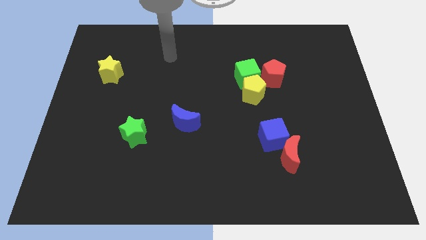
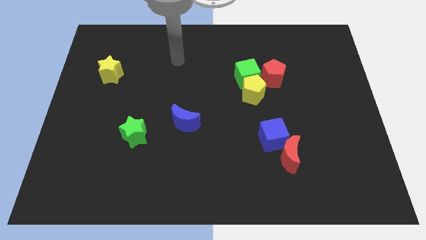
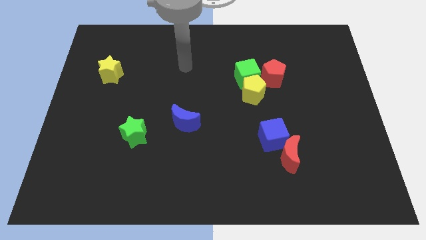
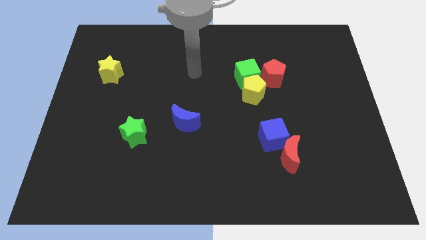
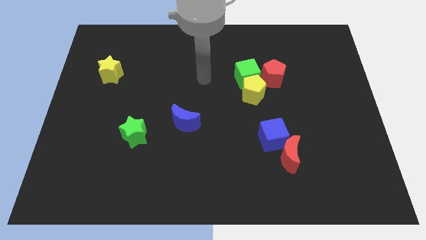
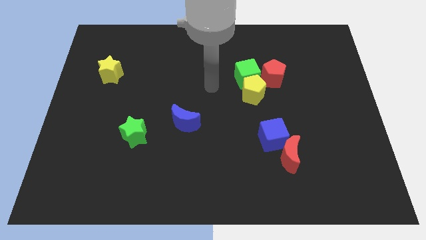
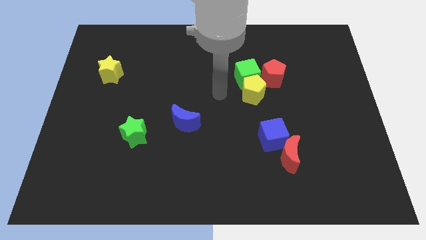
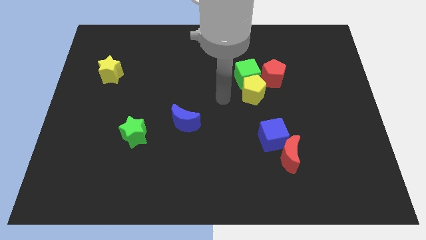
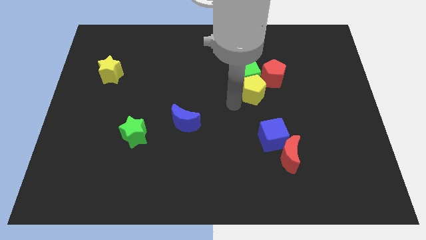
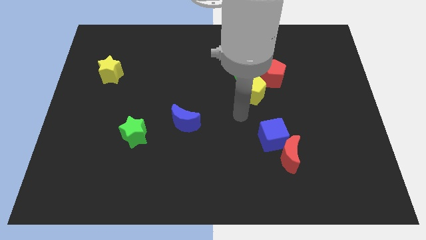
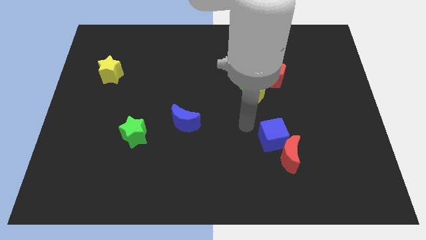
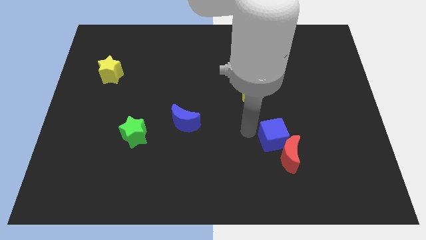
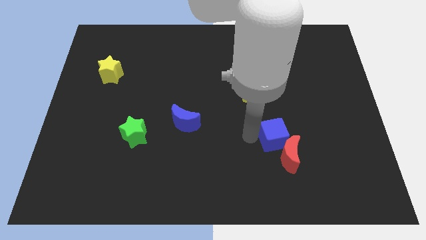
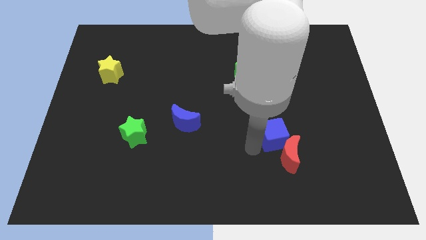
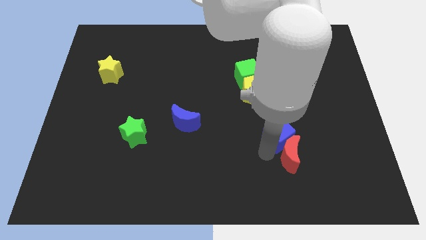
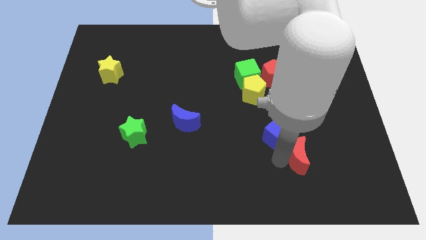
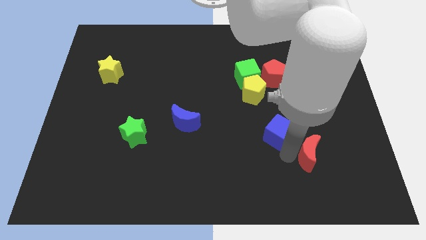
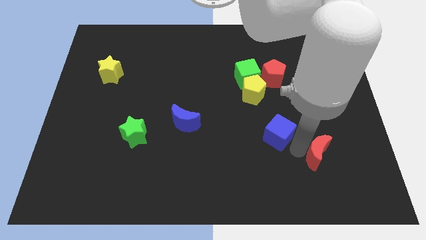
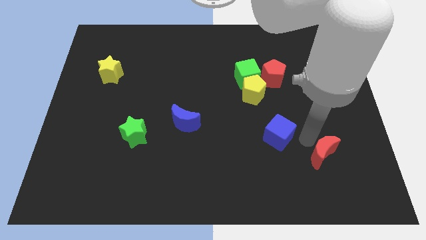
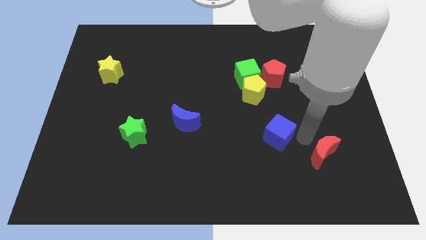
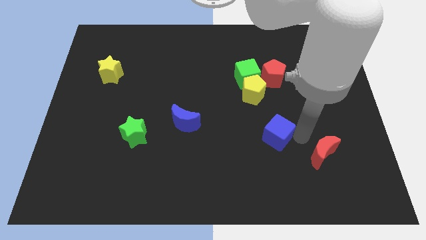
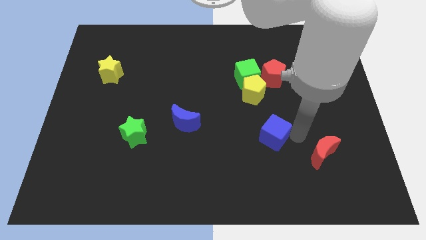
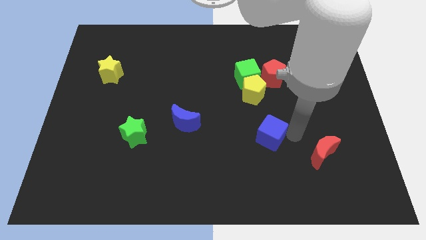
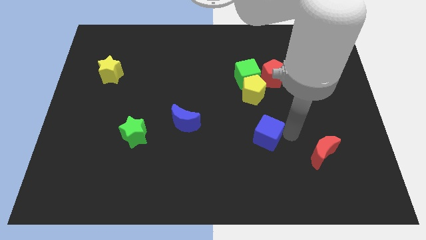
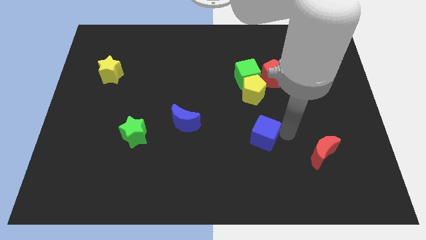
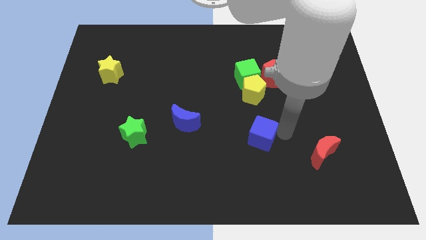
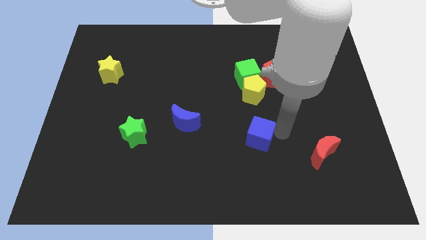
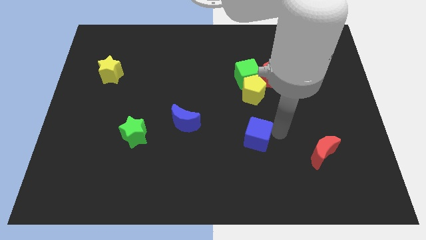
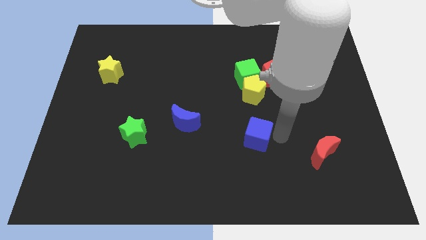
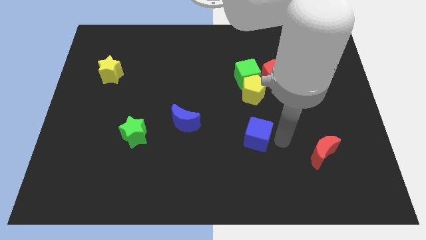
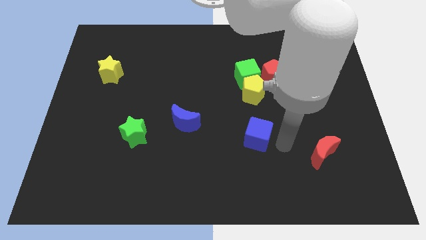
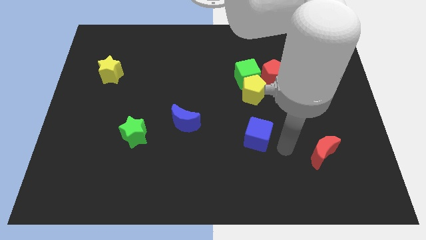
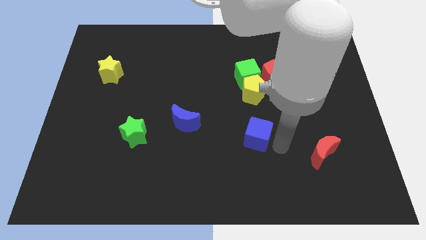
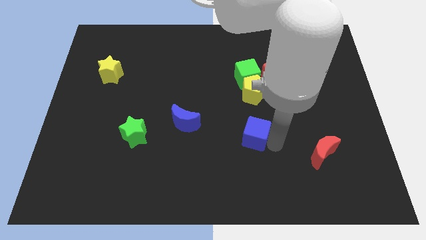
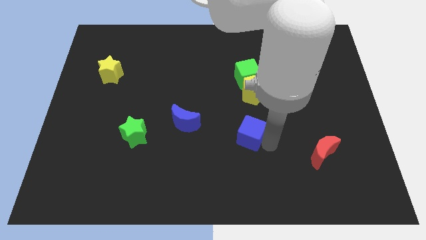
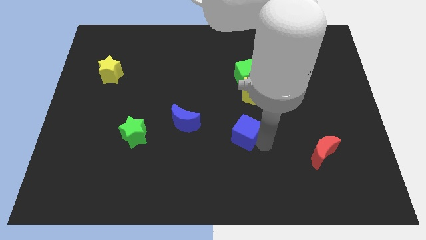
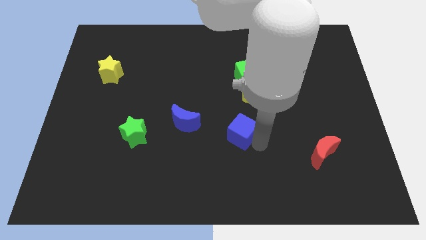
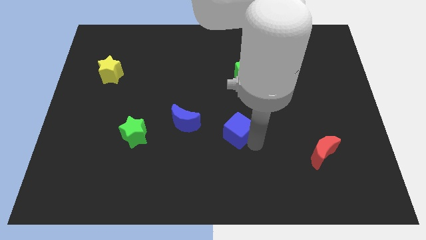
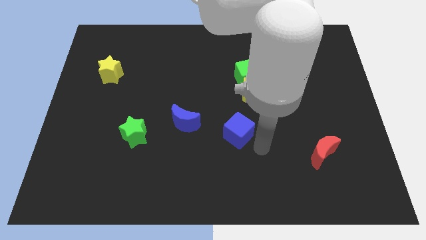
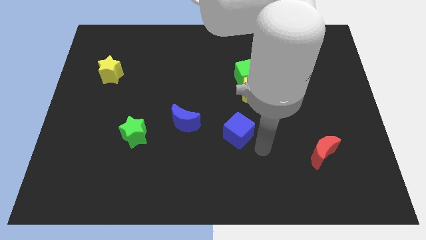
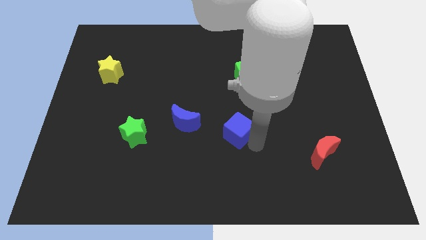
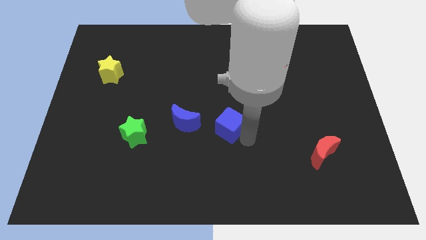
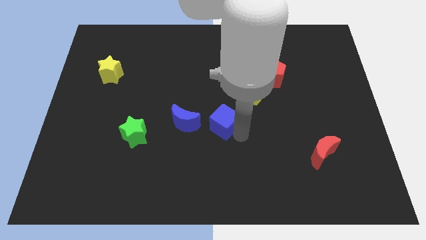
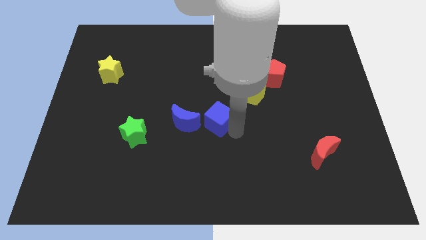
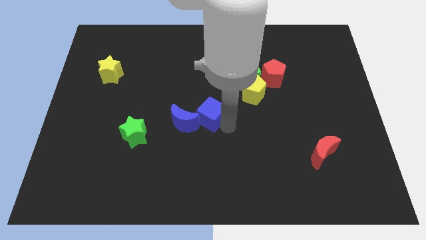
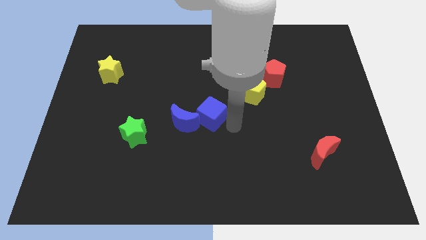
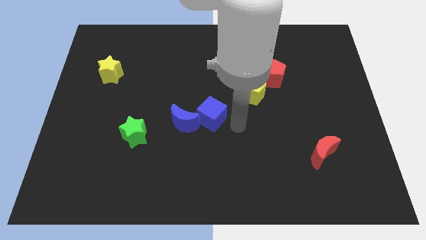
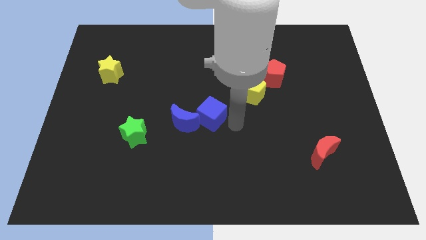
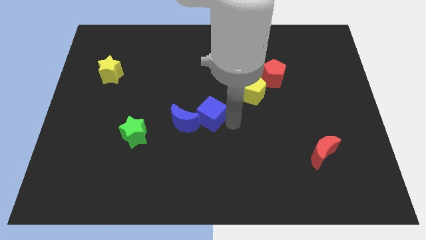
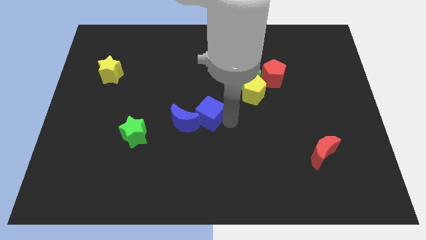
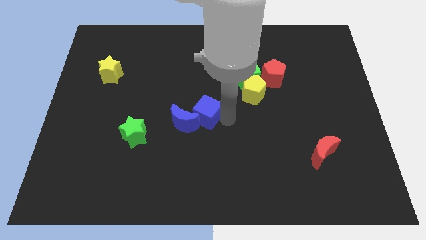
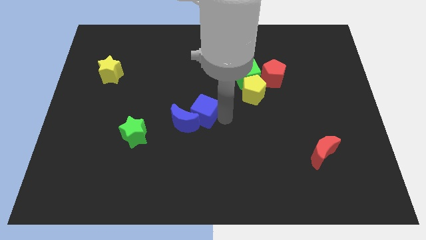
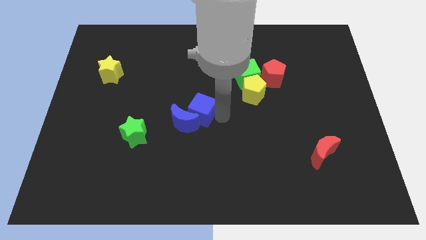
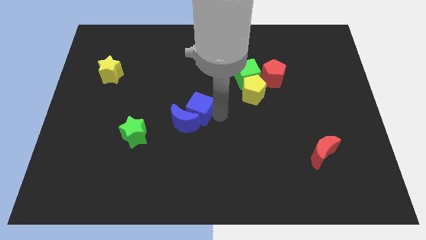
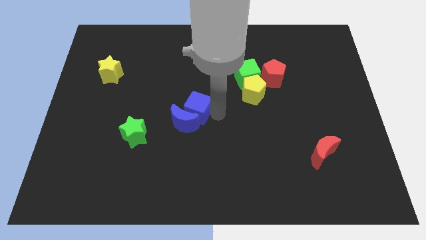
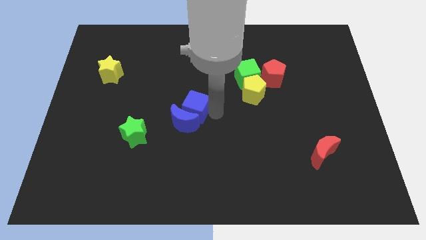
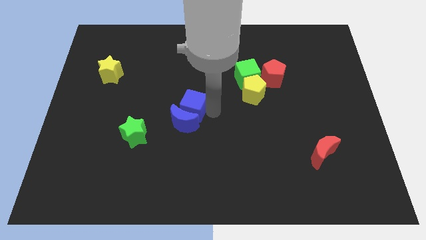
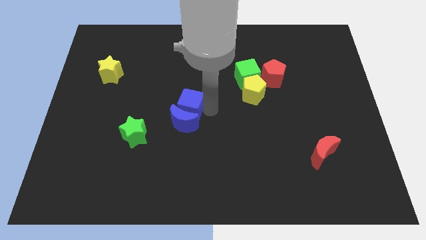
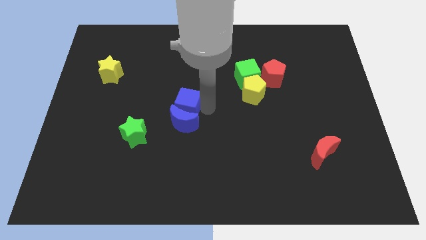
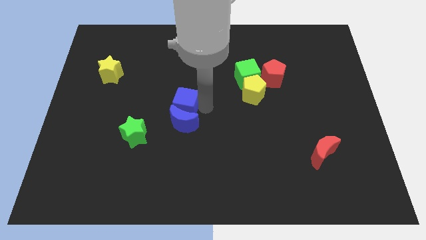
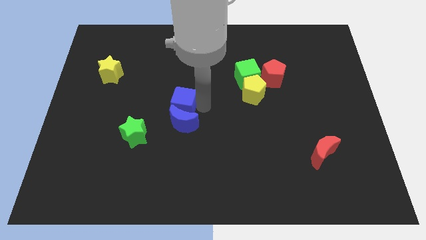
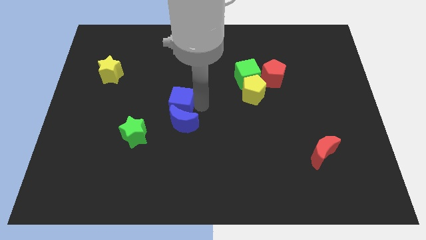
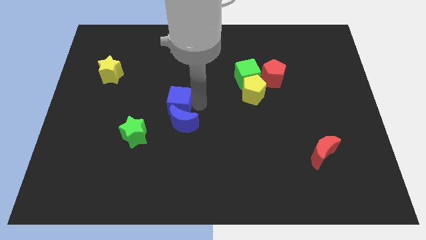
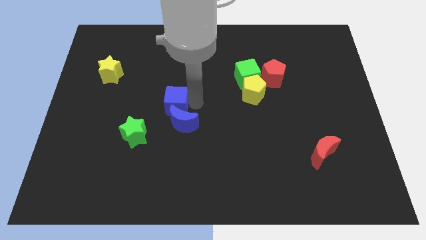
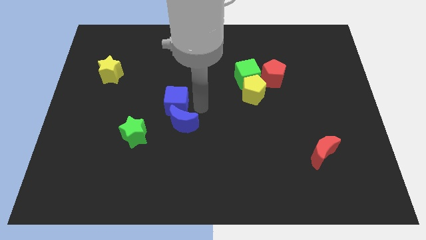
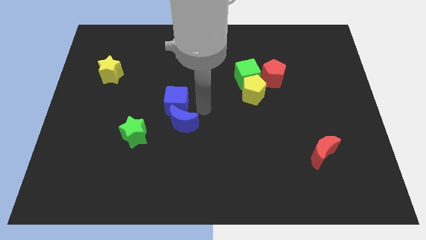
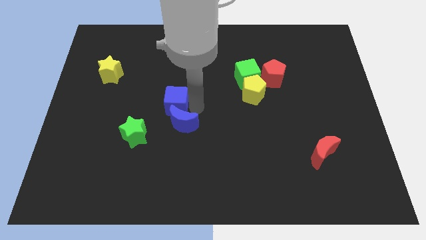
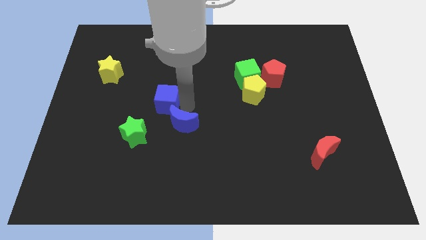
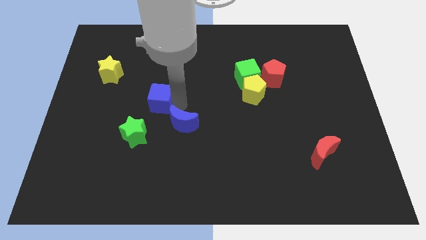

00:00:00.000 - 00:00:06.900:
put the blue cube to the top of the green star
